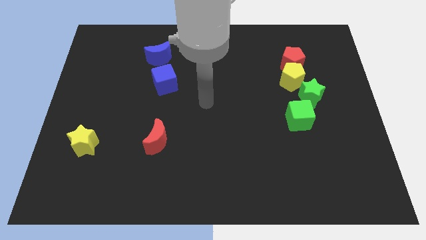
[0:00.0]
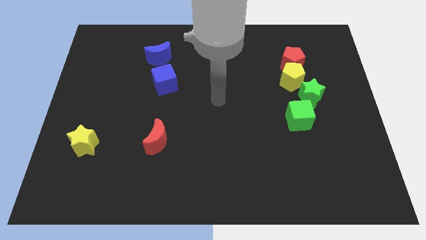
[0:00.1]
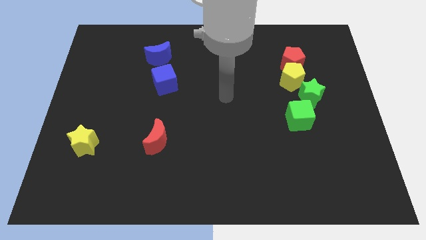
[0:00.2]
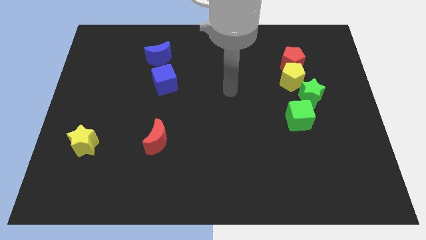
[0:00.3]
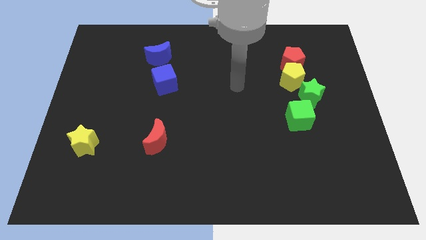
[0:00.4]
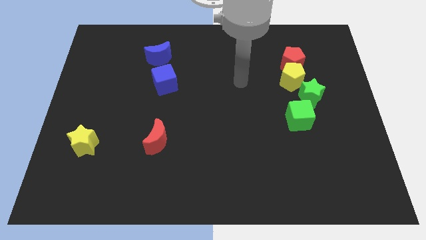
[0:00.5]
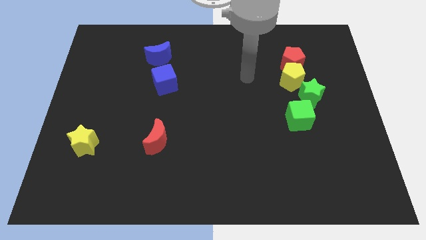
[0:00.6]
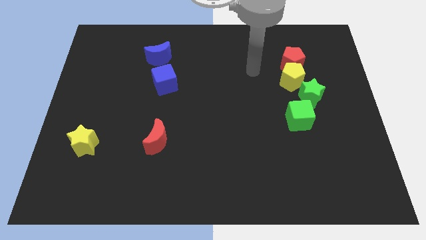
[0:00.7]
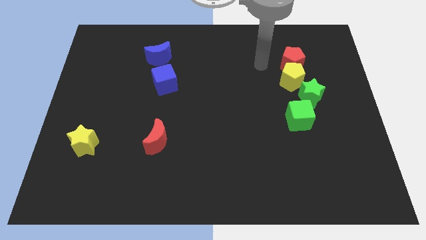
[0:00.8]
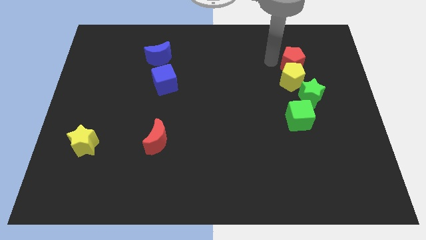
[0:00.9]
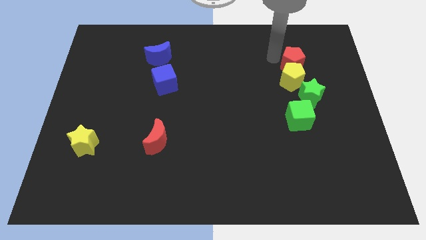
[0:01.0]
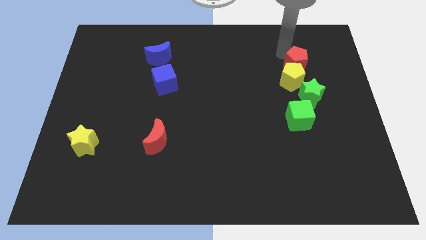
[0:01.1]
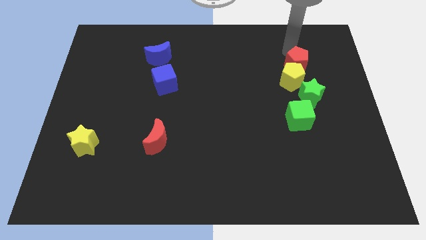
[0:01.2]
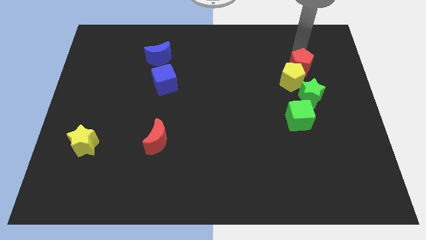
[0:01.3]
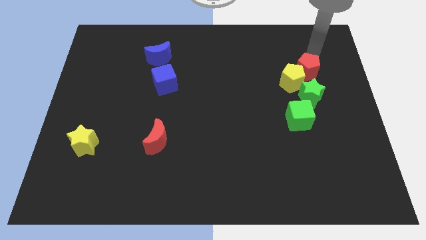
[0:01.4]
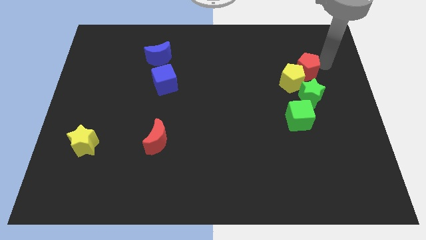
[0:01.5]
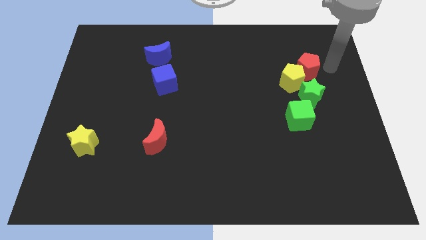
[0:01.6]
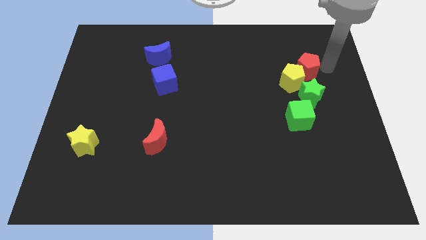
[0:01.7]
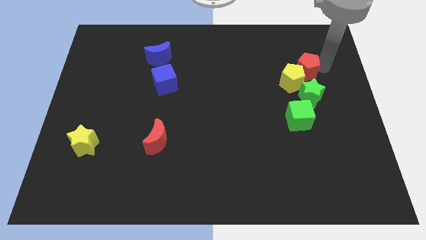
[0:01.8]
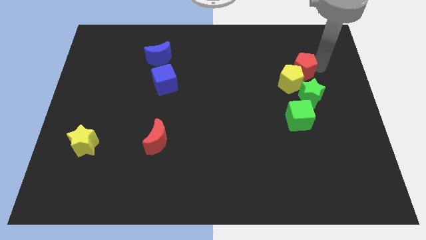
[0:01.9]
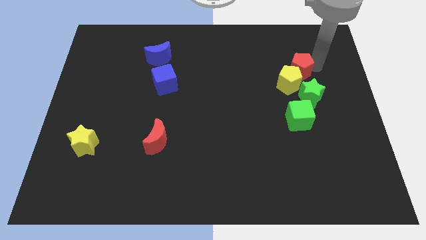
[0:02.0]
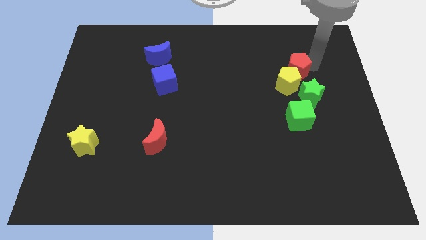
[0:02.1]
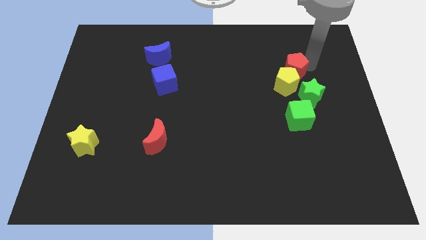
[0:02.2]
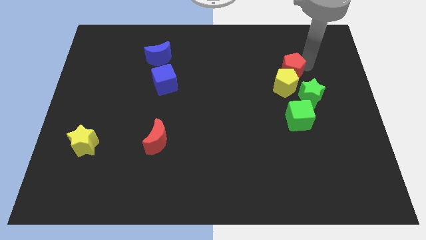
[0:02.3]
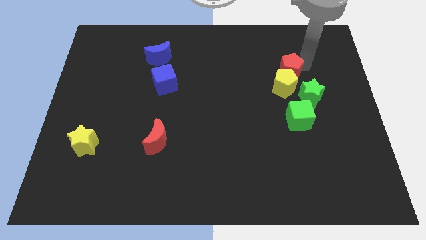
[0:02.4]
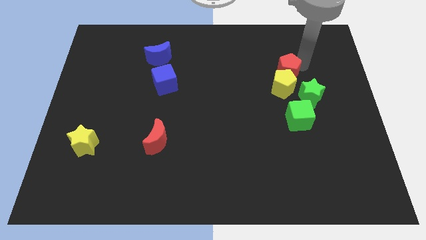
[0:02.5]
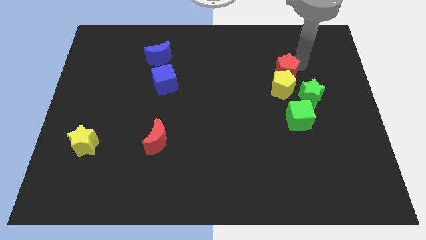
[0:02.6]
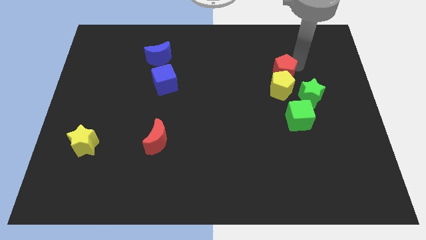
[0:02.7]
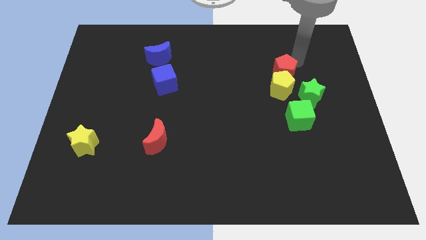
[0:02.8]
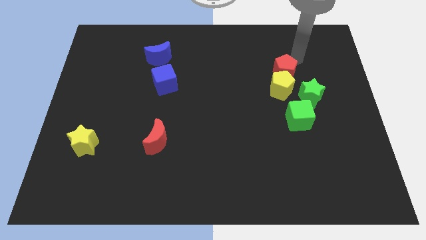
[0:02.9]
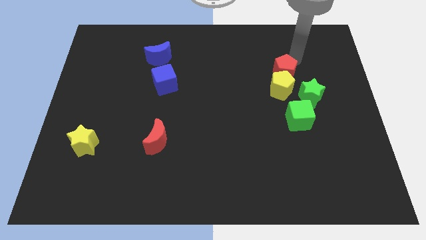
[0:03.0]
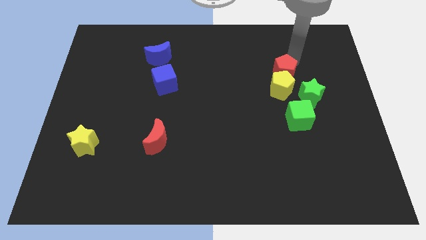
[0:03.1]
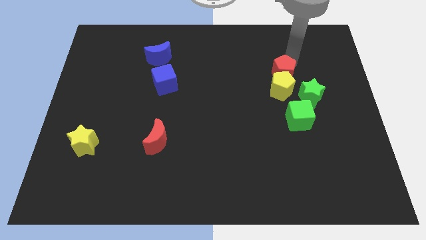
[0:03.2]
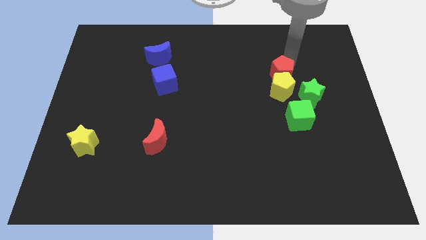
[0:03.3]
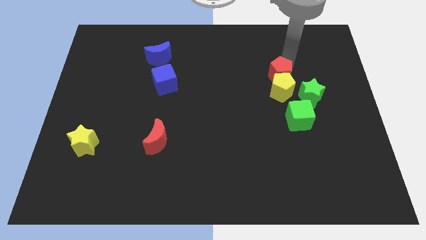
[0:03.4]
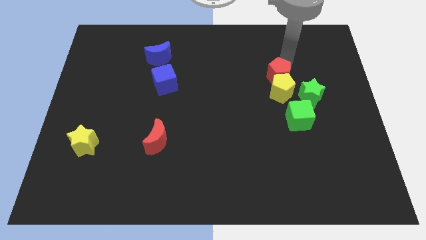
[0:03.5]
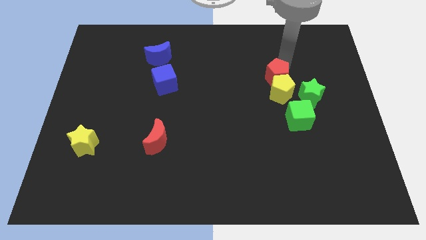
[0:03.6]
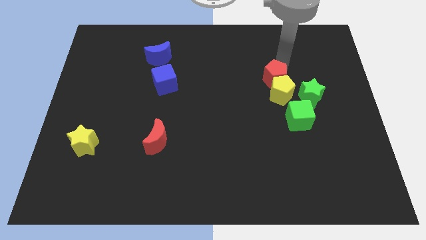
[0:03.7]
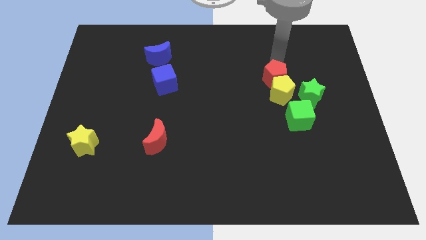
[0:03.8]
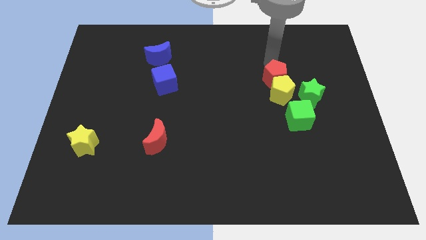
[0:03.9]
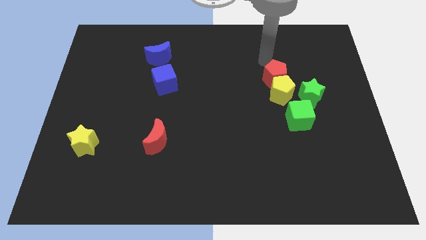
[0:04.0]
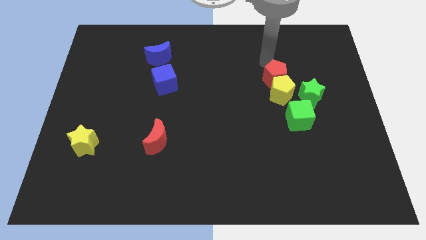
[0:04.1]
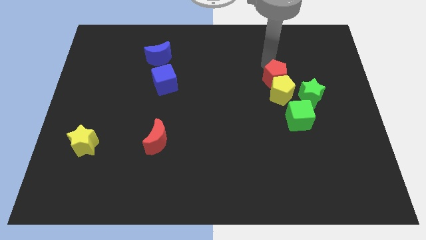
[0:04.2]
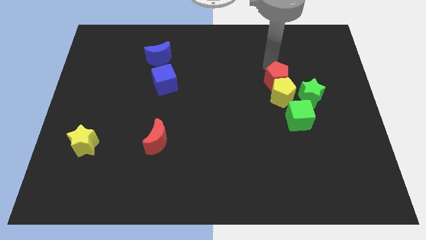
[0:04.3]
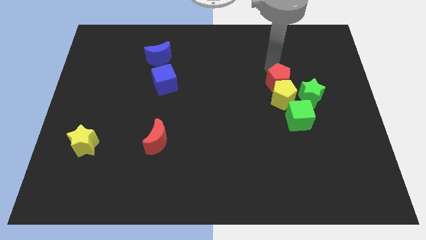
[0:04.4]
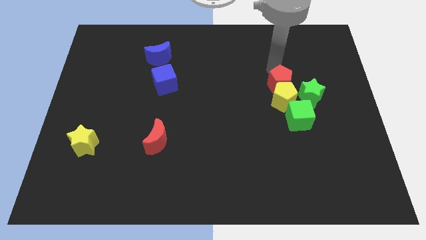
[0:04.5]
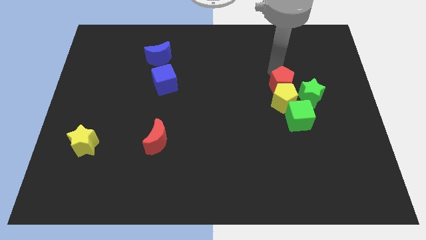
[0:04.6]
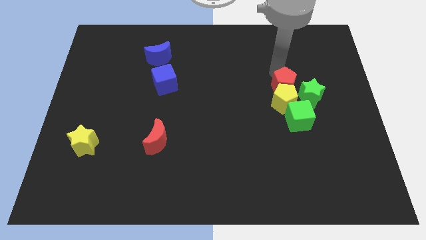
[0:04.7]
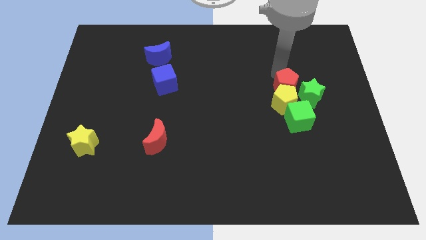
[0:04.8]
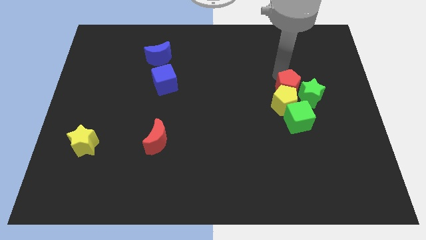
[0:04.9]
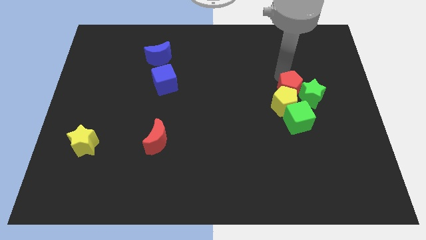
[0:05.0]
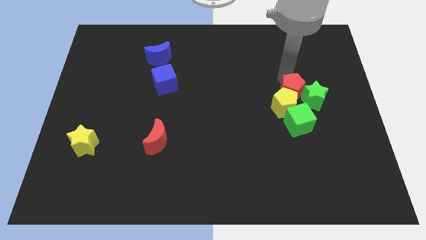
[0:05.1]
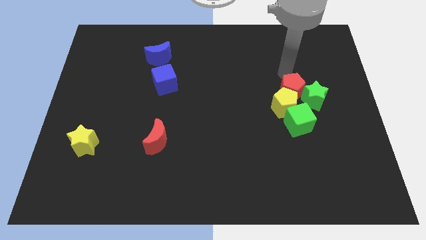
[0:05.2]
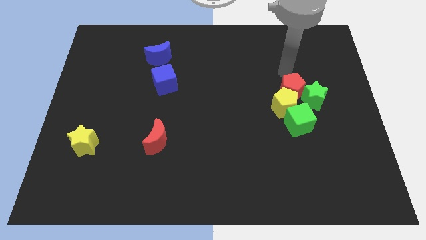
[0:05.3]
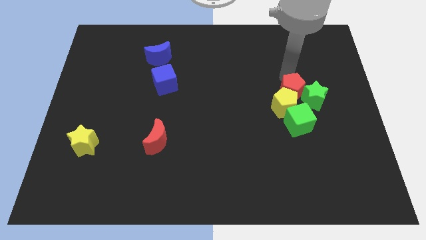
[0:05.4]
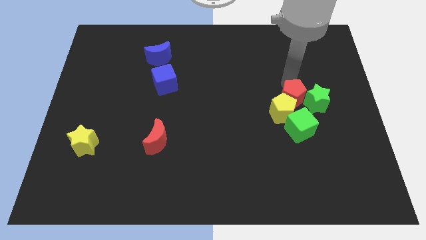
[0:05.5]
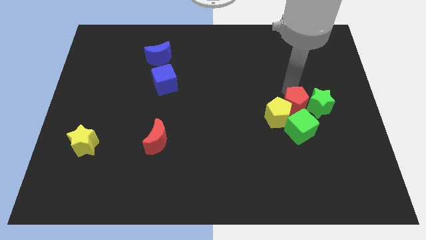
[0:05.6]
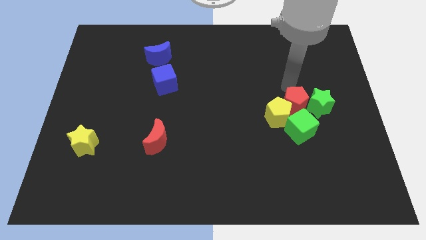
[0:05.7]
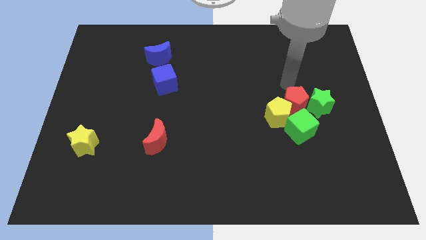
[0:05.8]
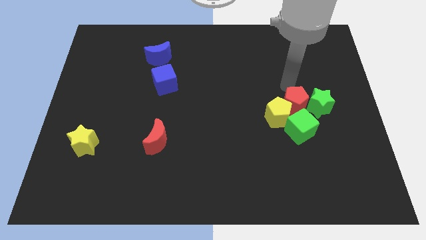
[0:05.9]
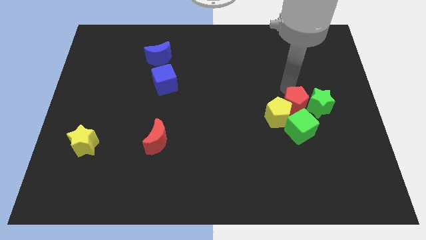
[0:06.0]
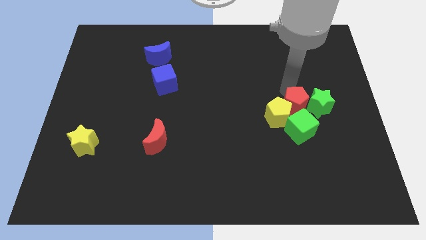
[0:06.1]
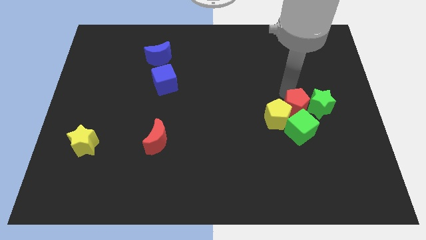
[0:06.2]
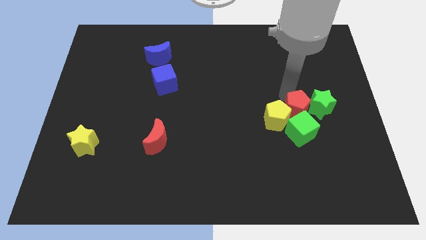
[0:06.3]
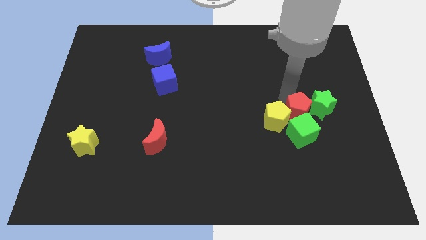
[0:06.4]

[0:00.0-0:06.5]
put the red pentagon close to the green cube
